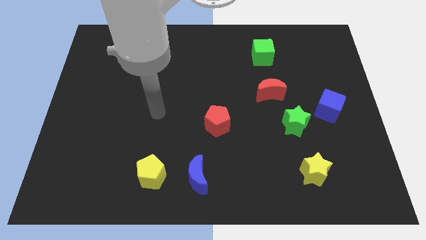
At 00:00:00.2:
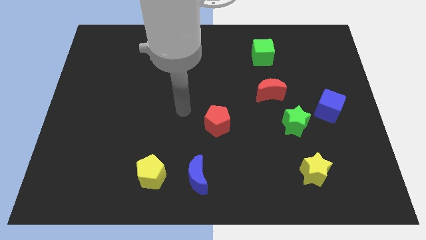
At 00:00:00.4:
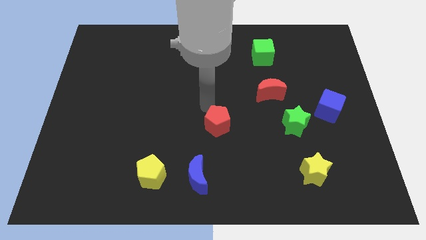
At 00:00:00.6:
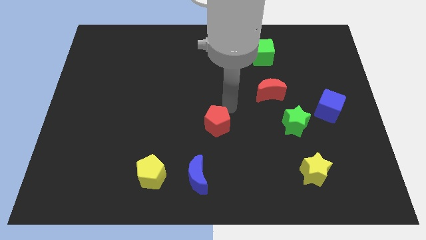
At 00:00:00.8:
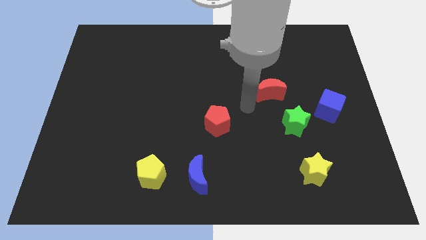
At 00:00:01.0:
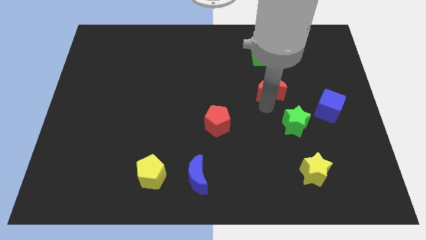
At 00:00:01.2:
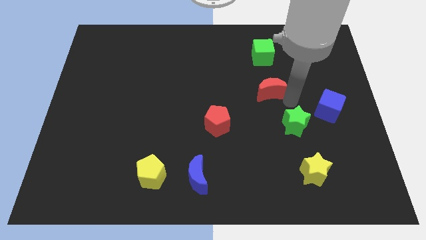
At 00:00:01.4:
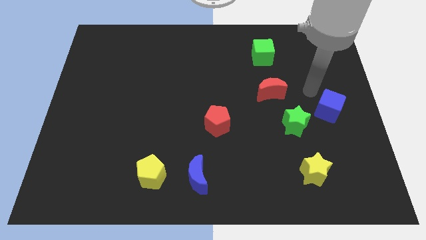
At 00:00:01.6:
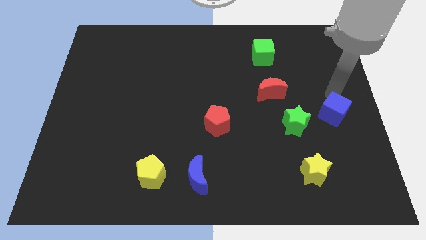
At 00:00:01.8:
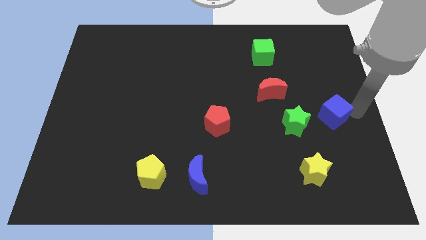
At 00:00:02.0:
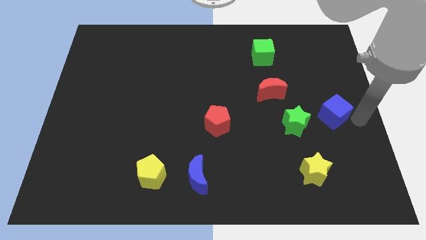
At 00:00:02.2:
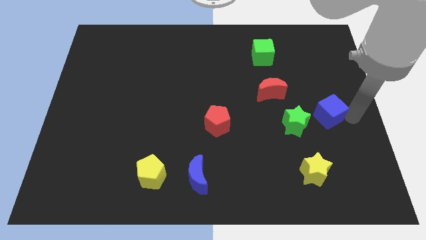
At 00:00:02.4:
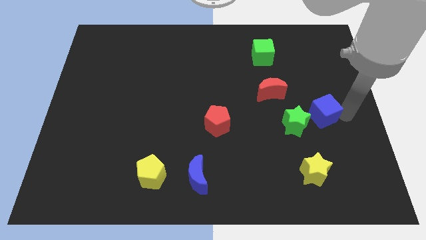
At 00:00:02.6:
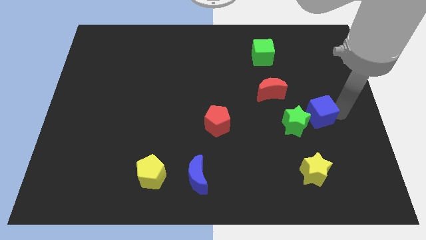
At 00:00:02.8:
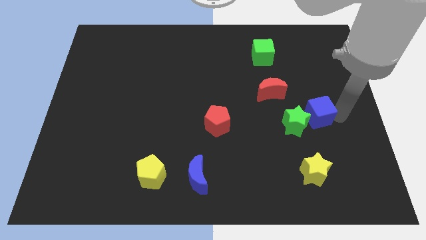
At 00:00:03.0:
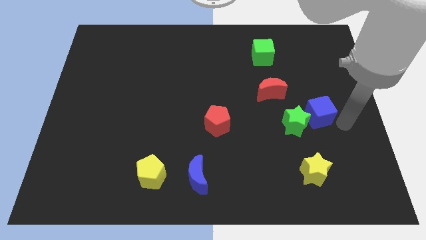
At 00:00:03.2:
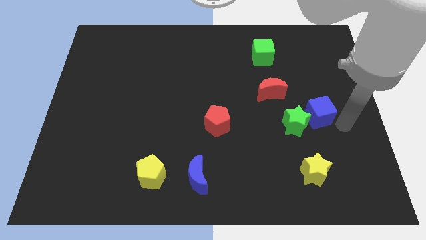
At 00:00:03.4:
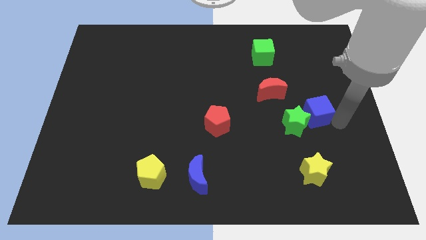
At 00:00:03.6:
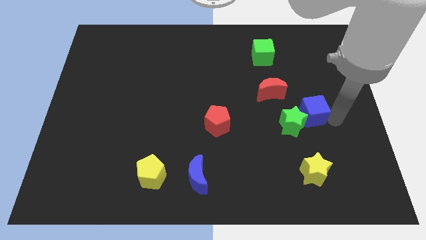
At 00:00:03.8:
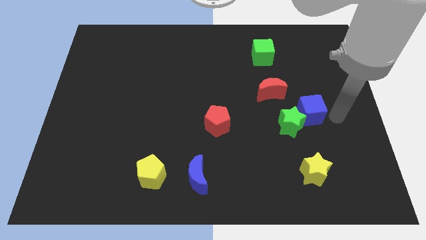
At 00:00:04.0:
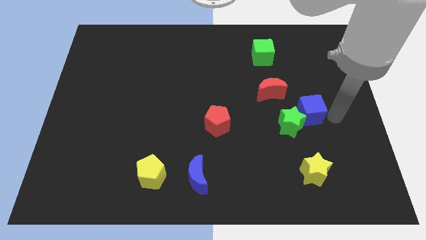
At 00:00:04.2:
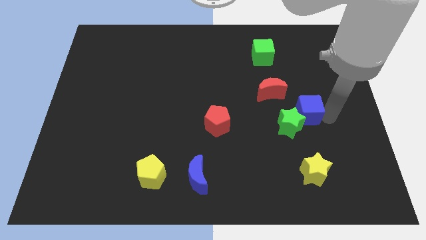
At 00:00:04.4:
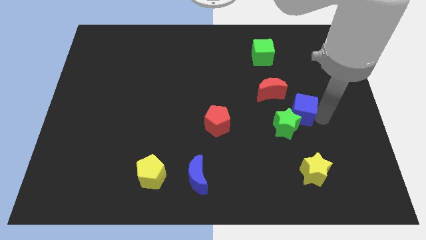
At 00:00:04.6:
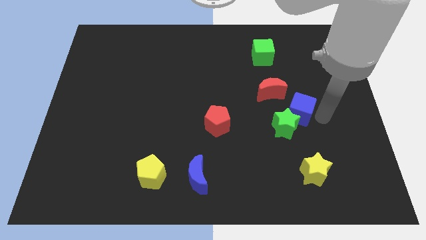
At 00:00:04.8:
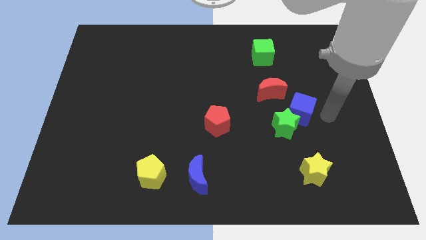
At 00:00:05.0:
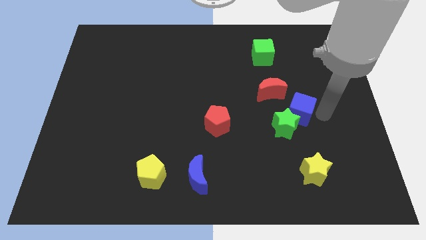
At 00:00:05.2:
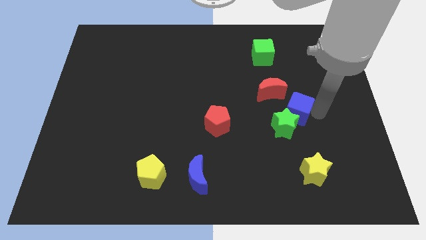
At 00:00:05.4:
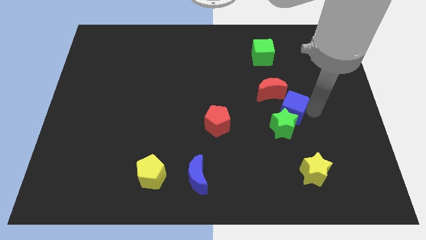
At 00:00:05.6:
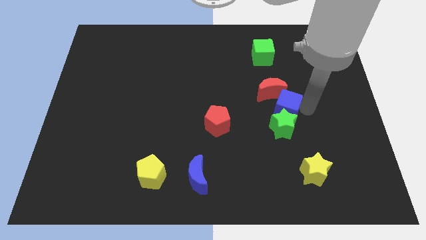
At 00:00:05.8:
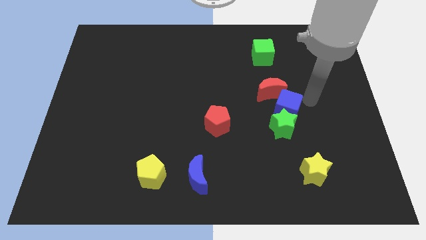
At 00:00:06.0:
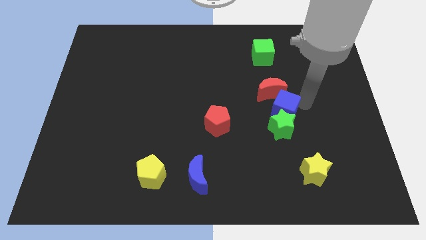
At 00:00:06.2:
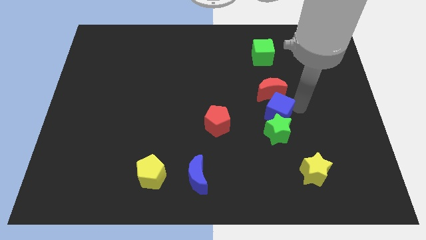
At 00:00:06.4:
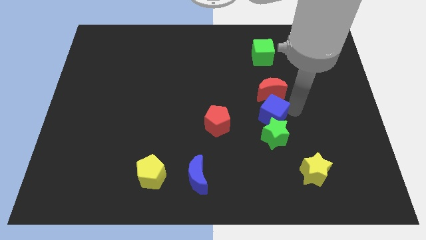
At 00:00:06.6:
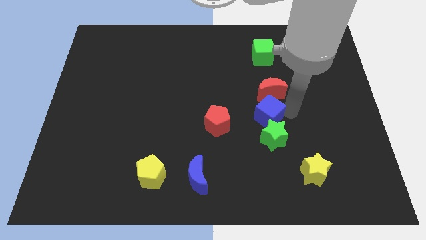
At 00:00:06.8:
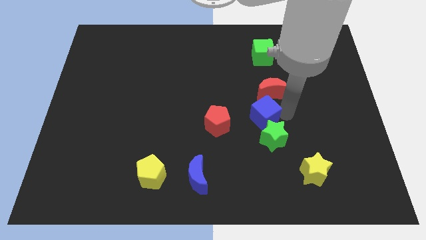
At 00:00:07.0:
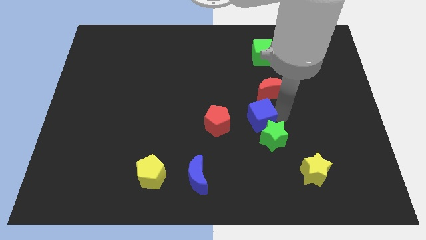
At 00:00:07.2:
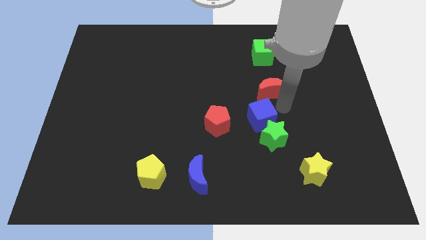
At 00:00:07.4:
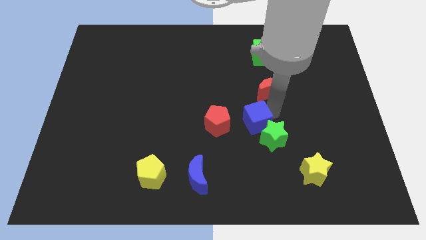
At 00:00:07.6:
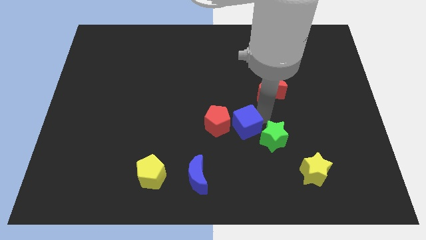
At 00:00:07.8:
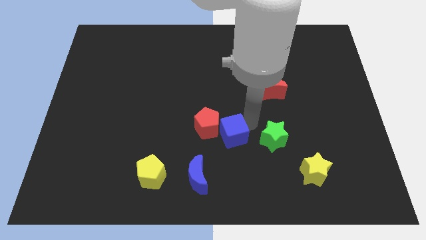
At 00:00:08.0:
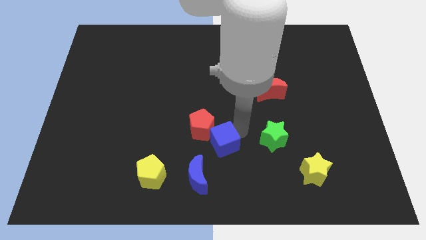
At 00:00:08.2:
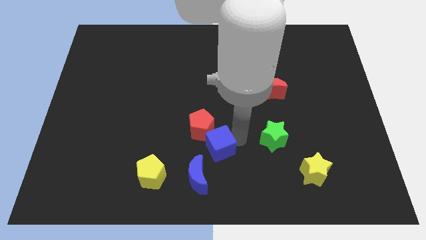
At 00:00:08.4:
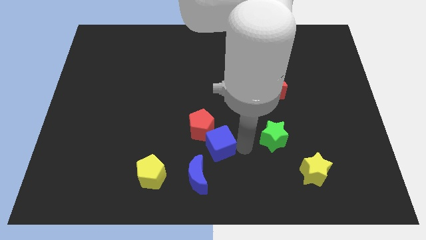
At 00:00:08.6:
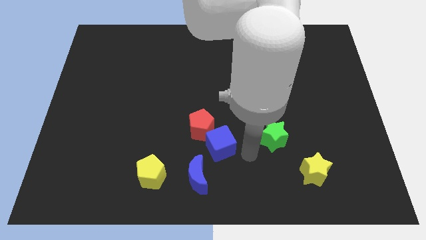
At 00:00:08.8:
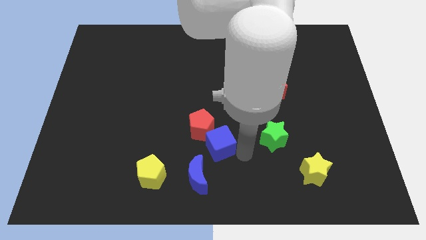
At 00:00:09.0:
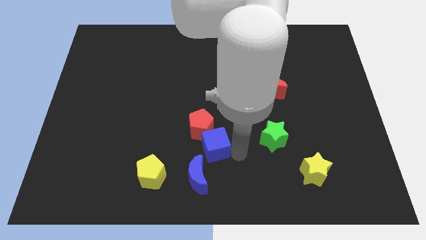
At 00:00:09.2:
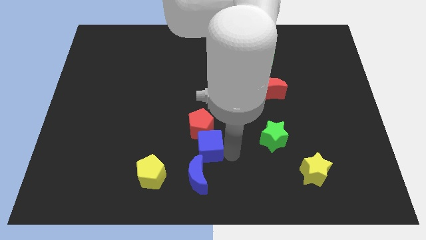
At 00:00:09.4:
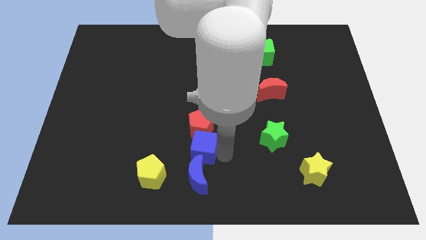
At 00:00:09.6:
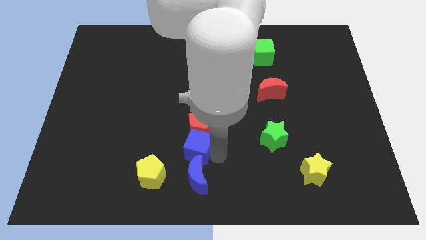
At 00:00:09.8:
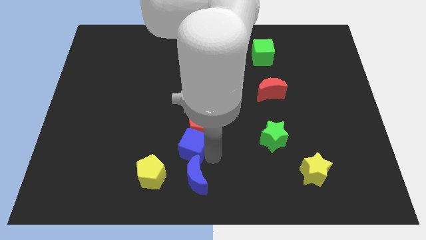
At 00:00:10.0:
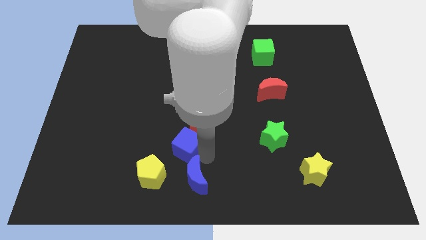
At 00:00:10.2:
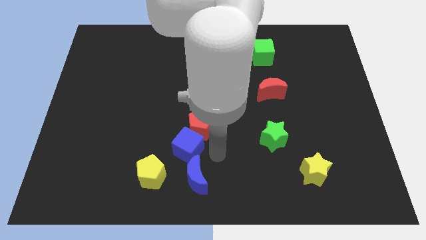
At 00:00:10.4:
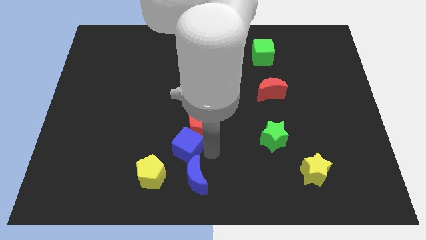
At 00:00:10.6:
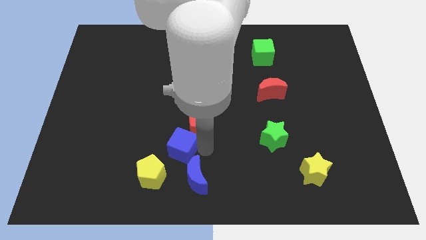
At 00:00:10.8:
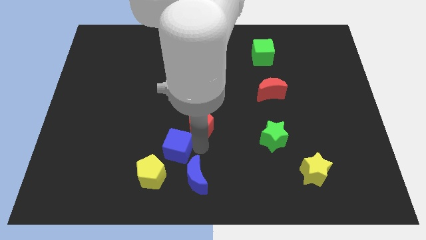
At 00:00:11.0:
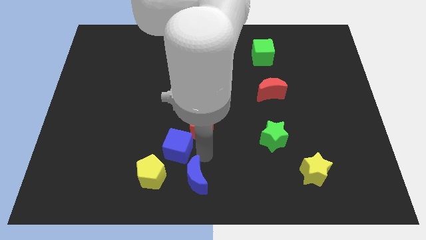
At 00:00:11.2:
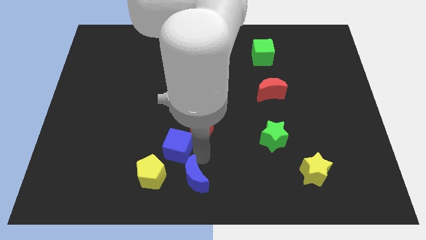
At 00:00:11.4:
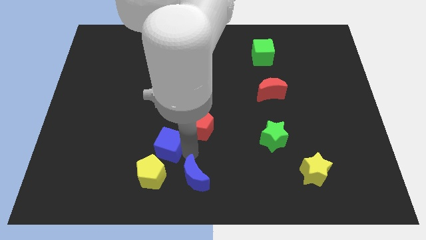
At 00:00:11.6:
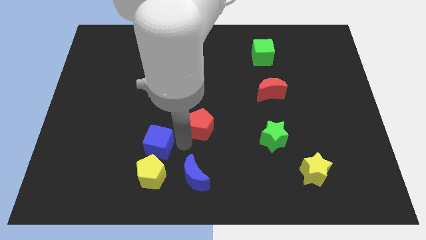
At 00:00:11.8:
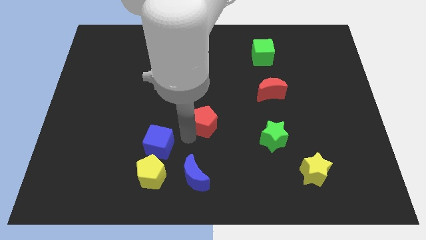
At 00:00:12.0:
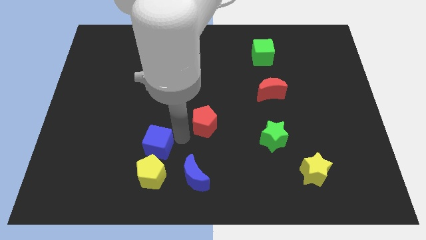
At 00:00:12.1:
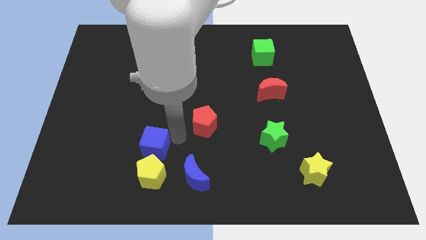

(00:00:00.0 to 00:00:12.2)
push the blue cube to the top left of the yellow pentagon

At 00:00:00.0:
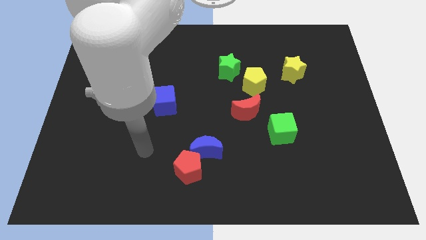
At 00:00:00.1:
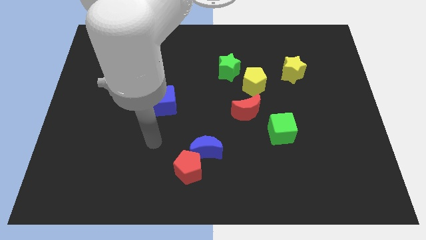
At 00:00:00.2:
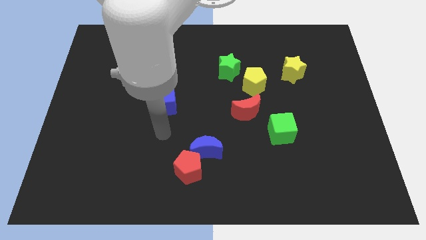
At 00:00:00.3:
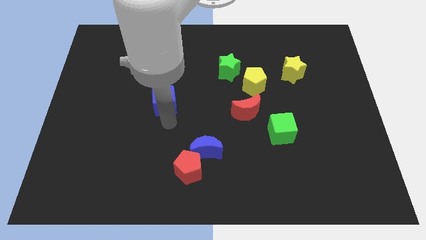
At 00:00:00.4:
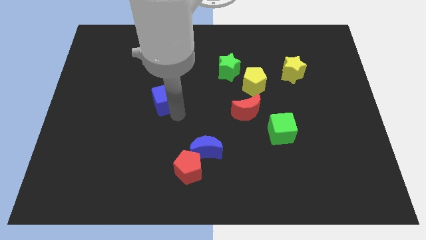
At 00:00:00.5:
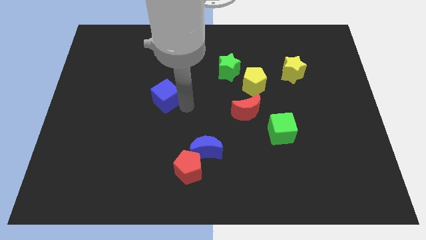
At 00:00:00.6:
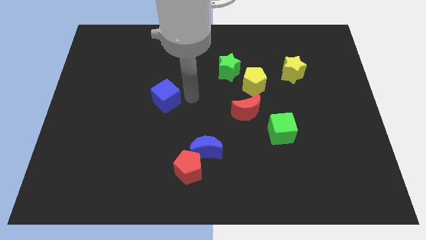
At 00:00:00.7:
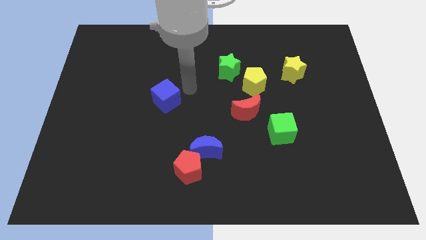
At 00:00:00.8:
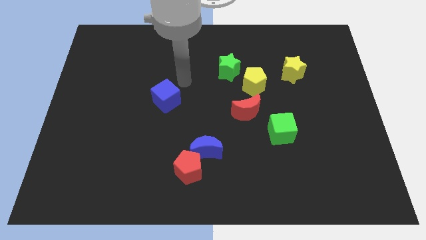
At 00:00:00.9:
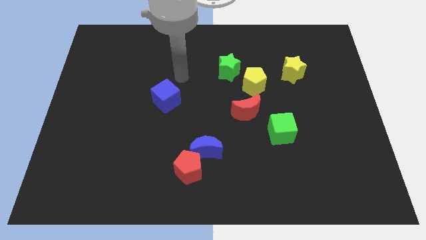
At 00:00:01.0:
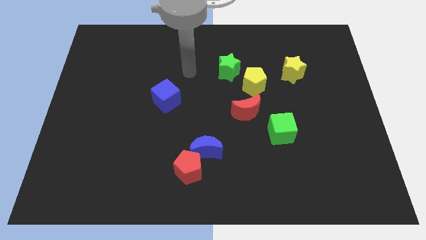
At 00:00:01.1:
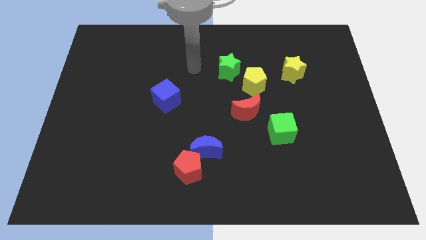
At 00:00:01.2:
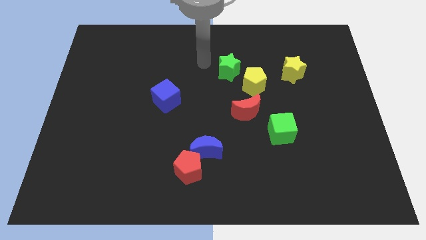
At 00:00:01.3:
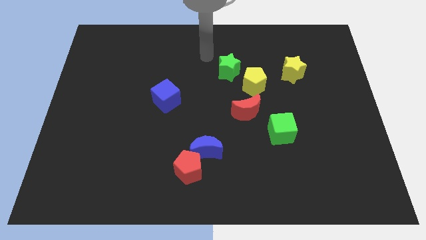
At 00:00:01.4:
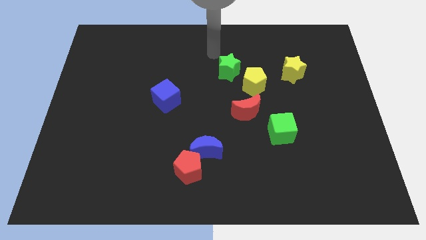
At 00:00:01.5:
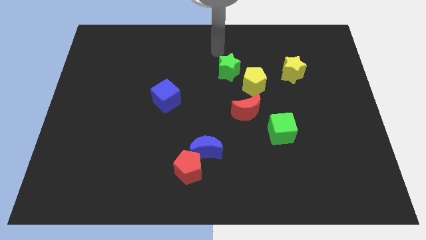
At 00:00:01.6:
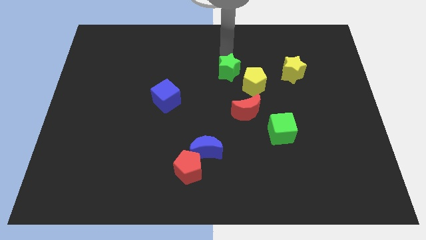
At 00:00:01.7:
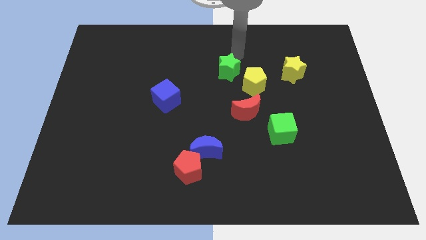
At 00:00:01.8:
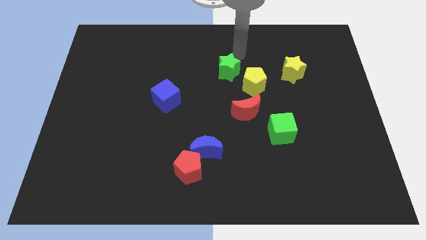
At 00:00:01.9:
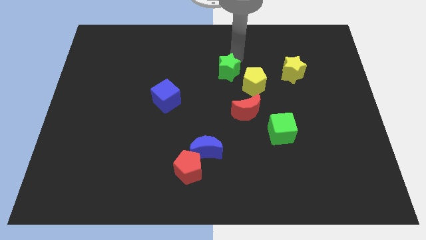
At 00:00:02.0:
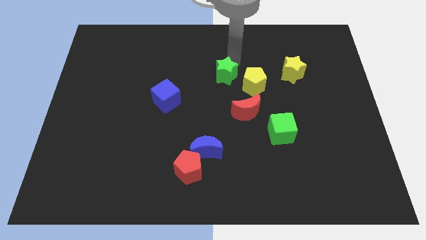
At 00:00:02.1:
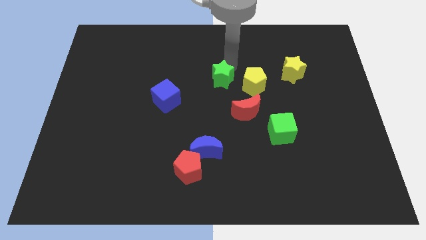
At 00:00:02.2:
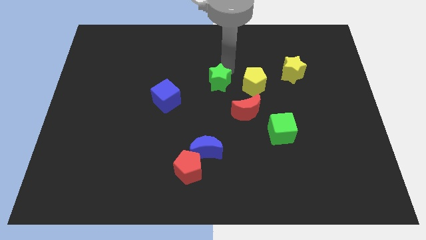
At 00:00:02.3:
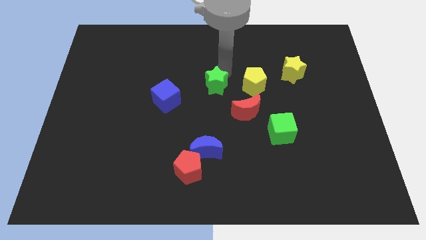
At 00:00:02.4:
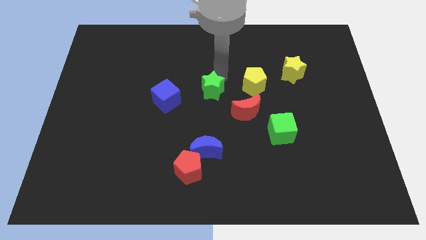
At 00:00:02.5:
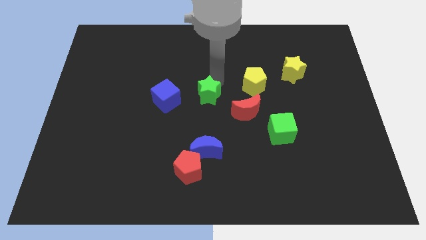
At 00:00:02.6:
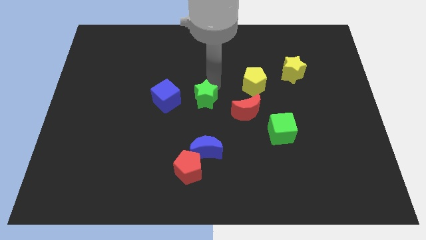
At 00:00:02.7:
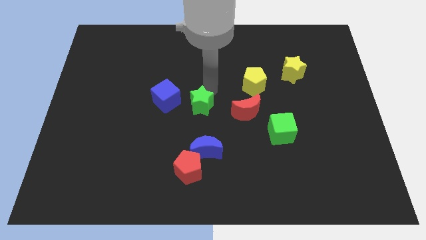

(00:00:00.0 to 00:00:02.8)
move the green star to the bottom right side of the blue cube
